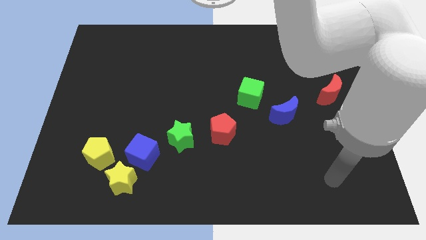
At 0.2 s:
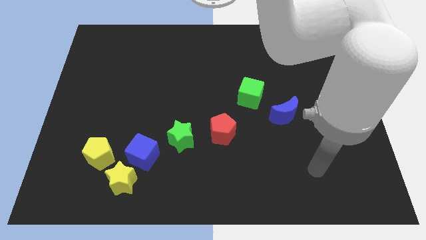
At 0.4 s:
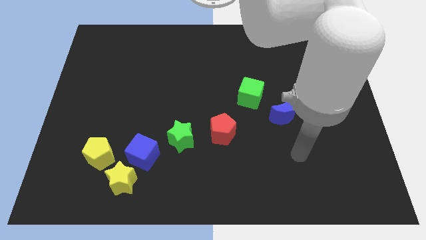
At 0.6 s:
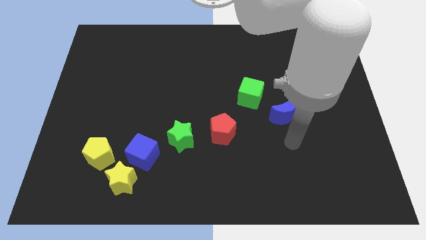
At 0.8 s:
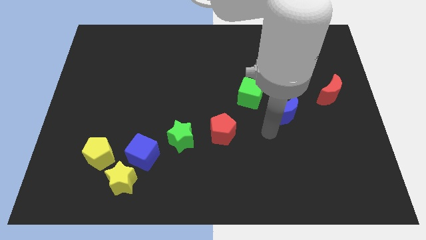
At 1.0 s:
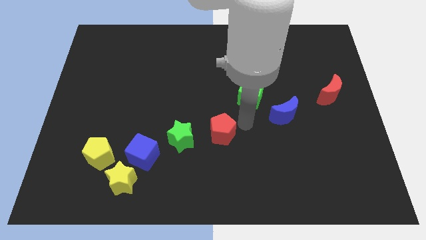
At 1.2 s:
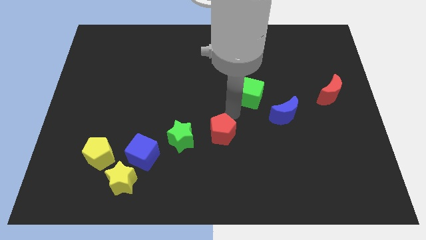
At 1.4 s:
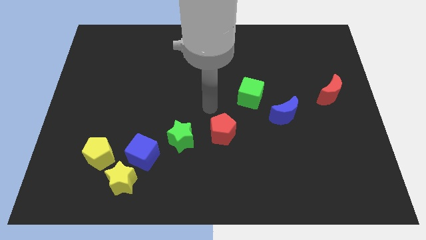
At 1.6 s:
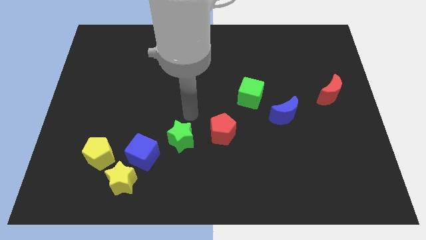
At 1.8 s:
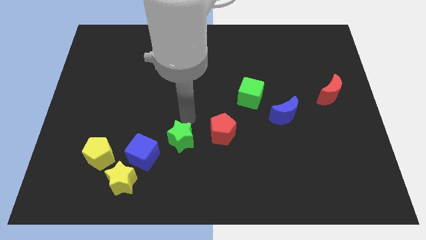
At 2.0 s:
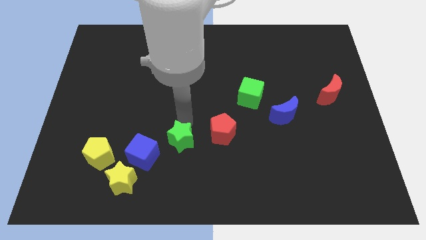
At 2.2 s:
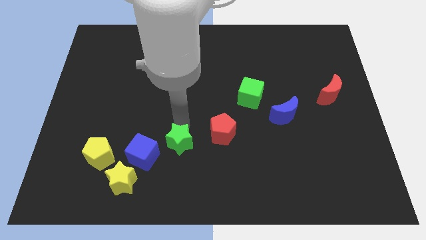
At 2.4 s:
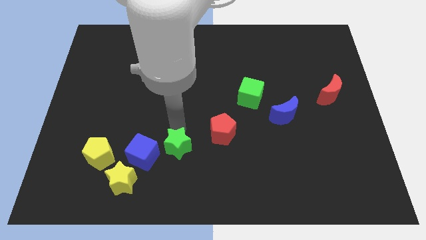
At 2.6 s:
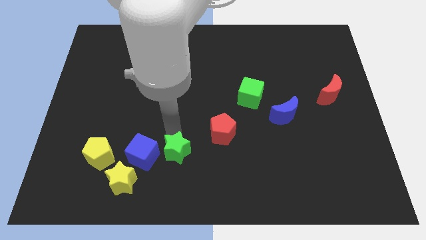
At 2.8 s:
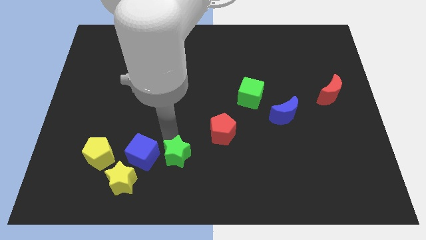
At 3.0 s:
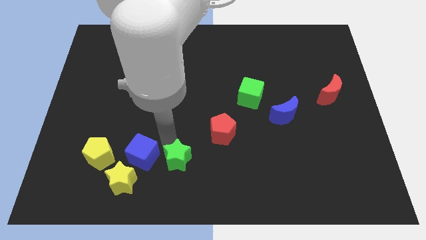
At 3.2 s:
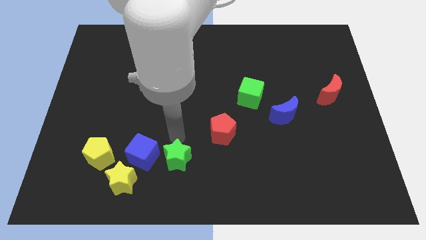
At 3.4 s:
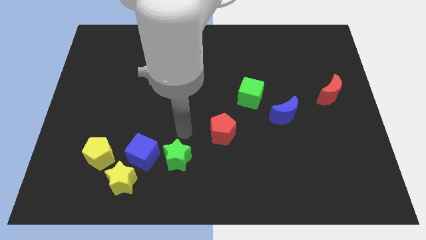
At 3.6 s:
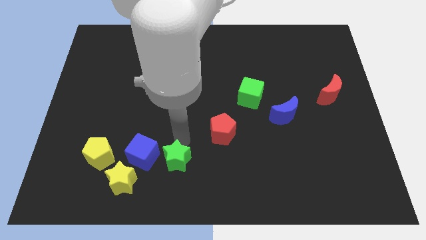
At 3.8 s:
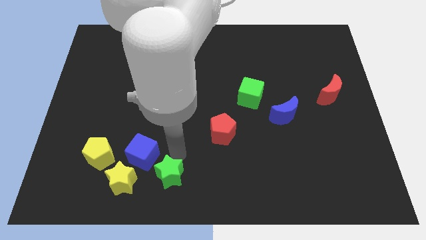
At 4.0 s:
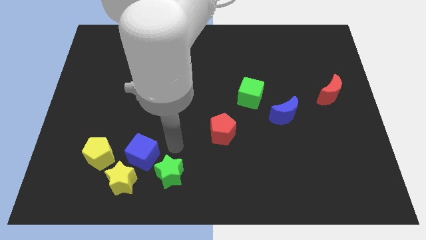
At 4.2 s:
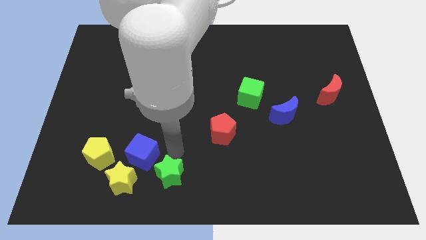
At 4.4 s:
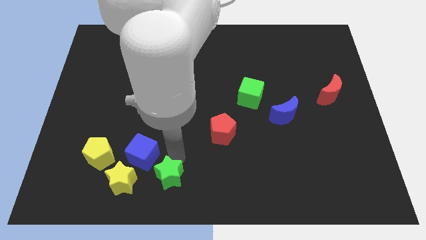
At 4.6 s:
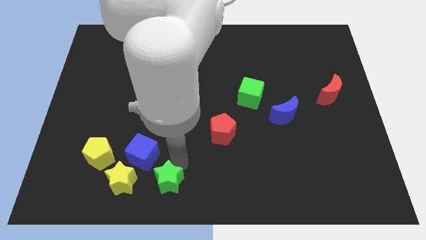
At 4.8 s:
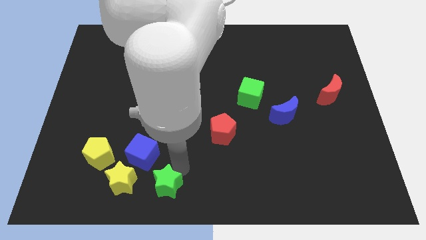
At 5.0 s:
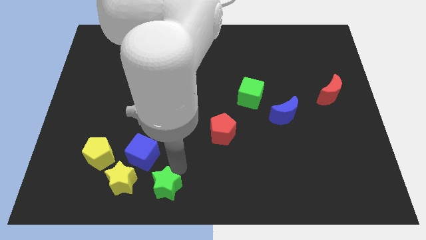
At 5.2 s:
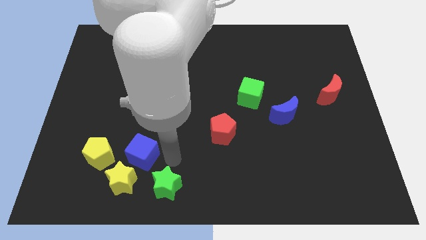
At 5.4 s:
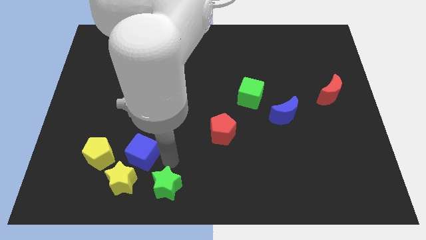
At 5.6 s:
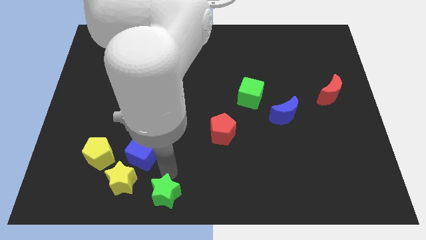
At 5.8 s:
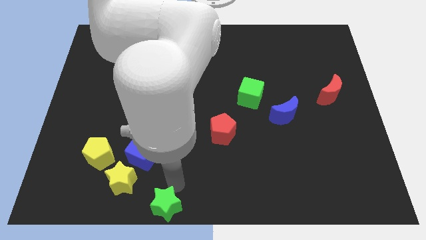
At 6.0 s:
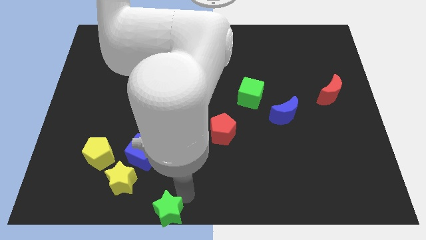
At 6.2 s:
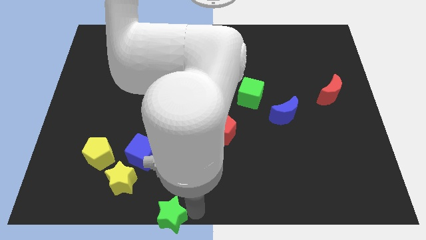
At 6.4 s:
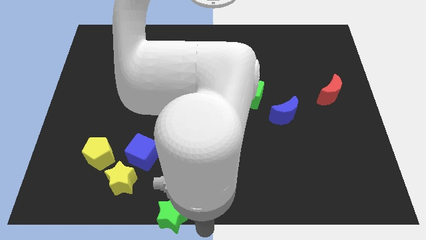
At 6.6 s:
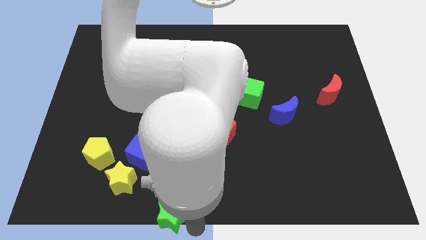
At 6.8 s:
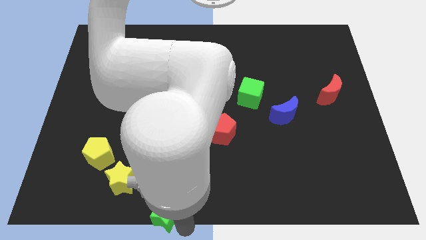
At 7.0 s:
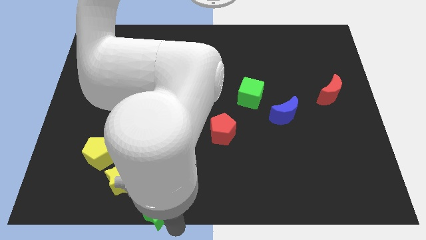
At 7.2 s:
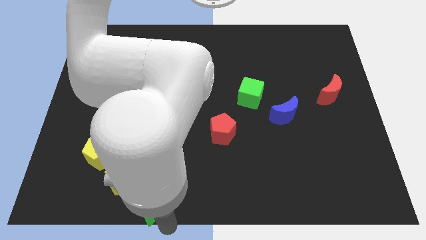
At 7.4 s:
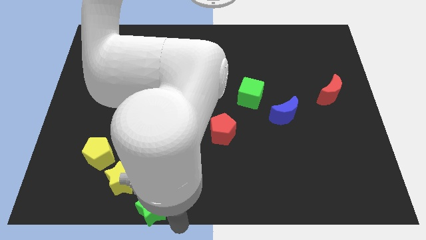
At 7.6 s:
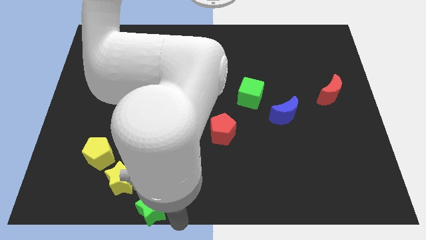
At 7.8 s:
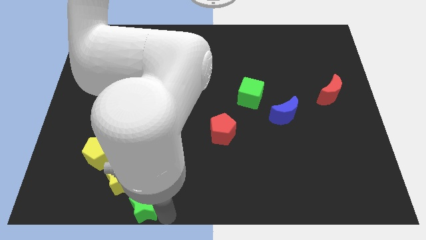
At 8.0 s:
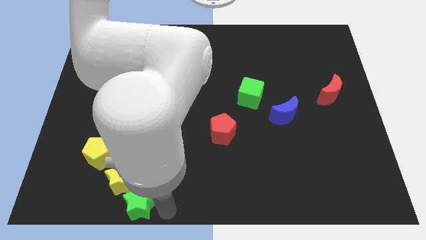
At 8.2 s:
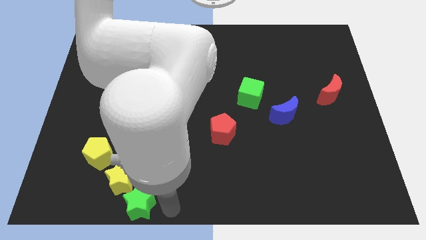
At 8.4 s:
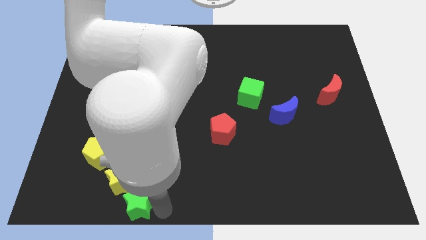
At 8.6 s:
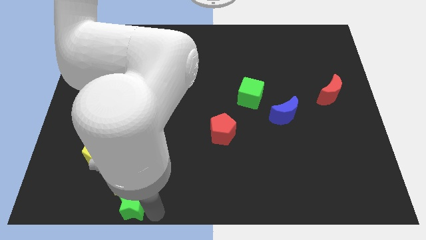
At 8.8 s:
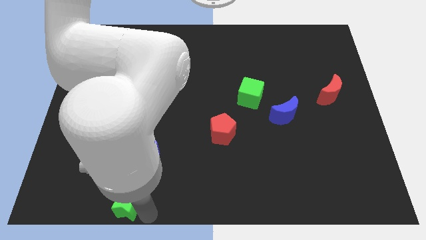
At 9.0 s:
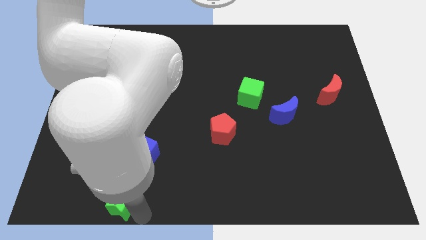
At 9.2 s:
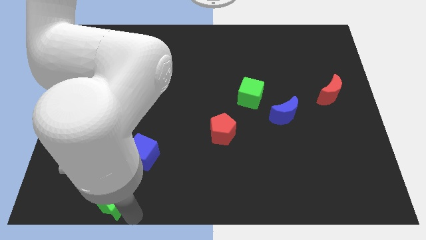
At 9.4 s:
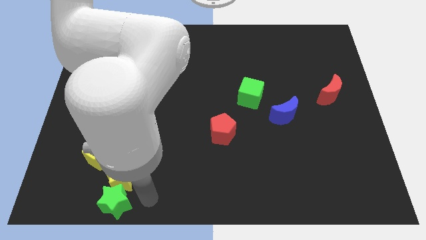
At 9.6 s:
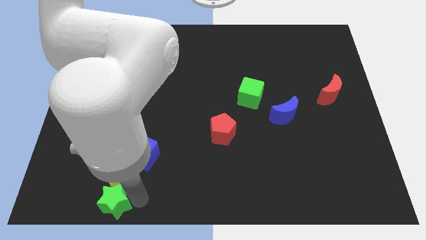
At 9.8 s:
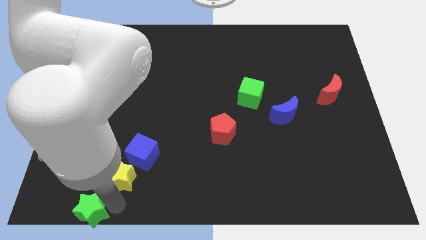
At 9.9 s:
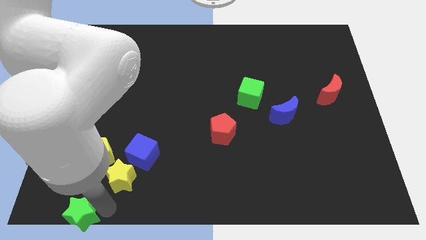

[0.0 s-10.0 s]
push the green star to the bottom left corner

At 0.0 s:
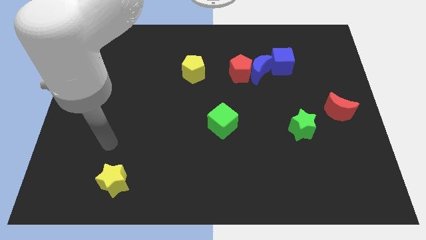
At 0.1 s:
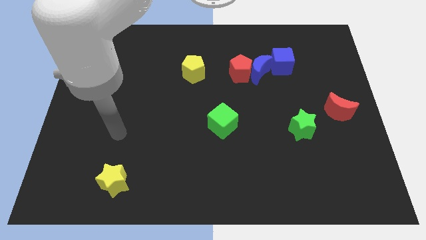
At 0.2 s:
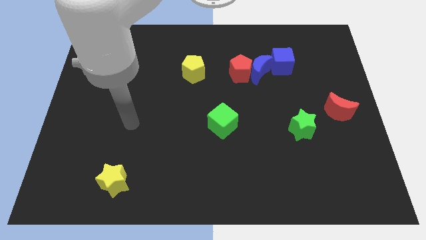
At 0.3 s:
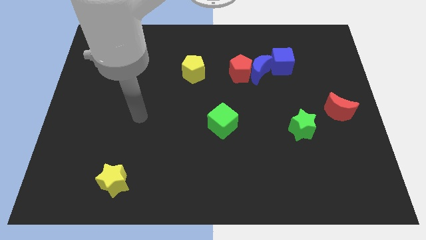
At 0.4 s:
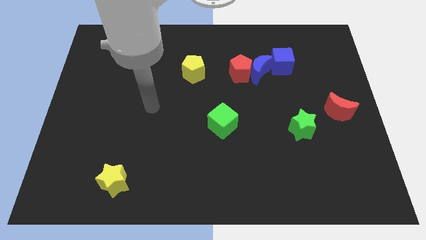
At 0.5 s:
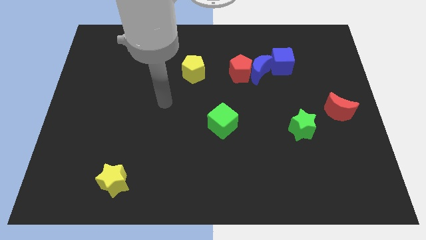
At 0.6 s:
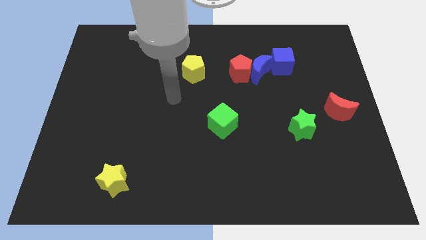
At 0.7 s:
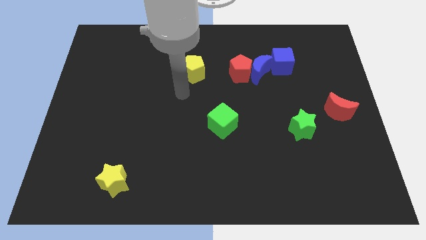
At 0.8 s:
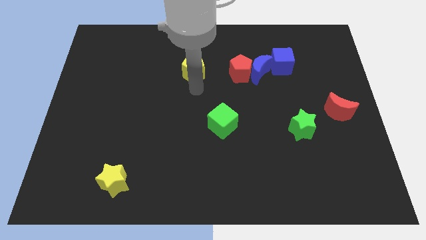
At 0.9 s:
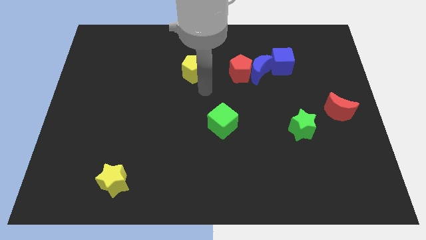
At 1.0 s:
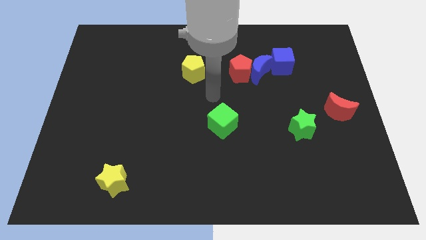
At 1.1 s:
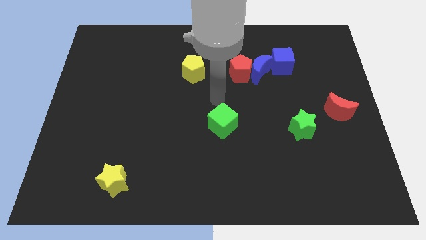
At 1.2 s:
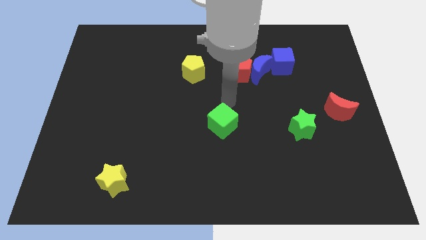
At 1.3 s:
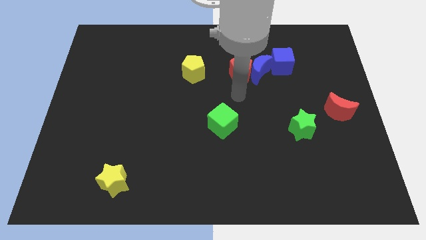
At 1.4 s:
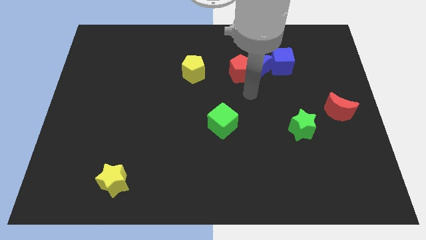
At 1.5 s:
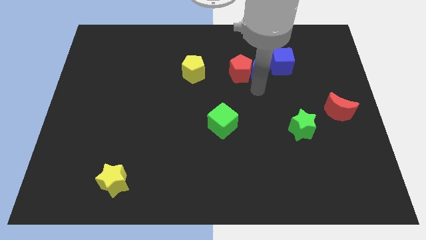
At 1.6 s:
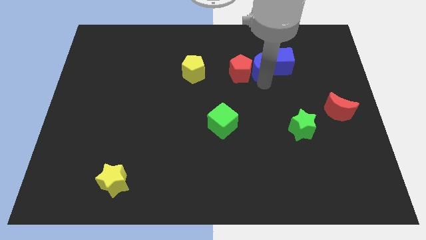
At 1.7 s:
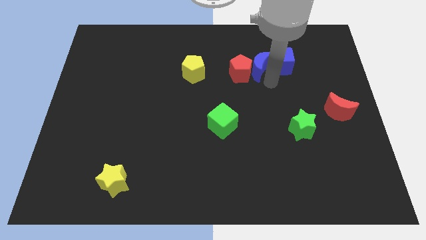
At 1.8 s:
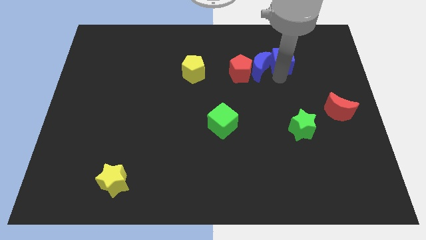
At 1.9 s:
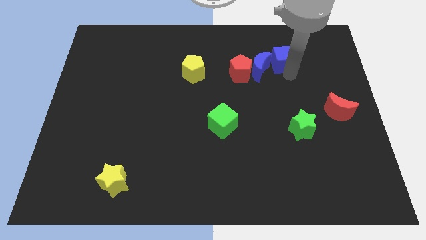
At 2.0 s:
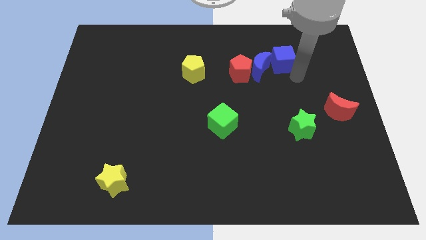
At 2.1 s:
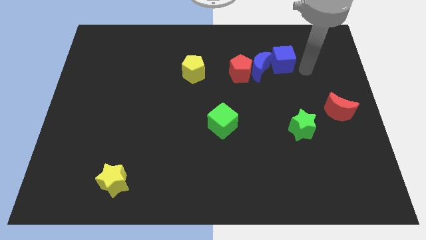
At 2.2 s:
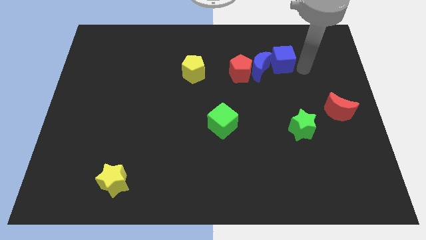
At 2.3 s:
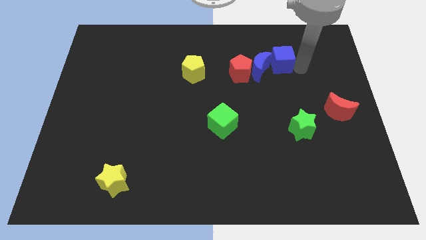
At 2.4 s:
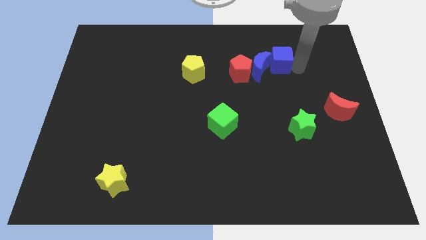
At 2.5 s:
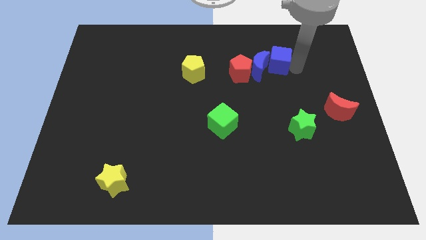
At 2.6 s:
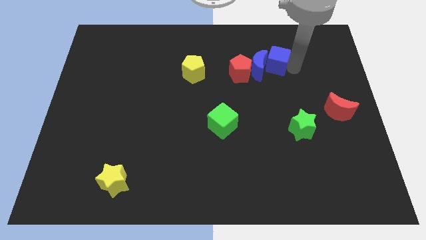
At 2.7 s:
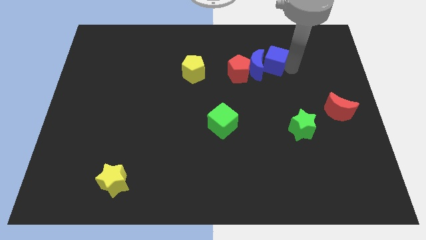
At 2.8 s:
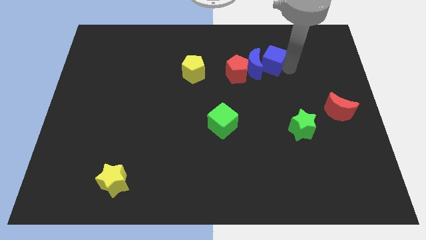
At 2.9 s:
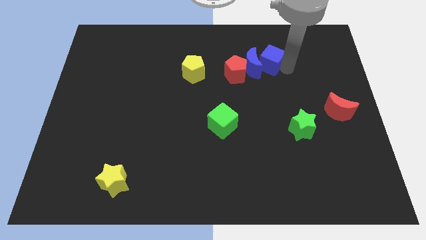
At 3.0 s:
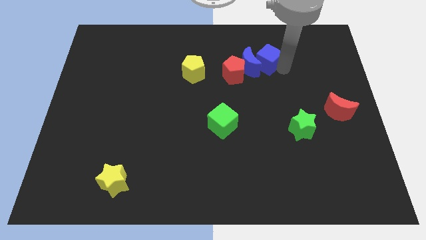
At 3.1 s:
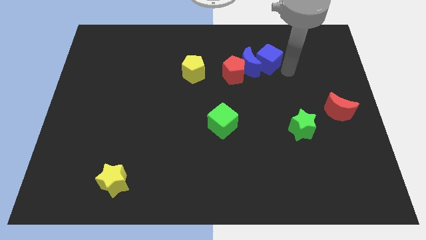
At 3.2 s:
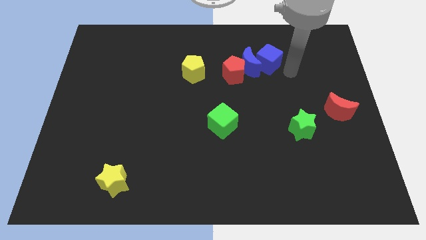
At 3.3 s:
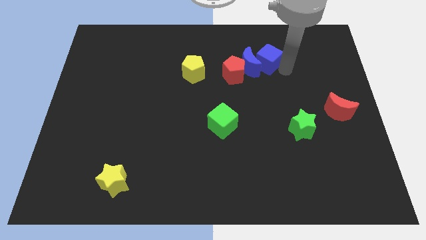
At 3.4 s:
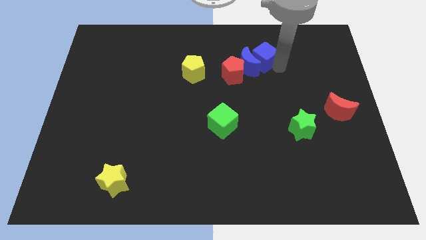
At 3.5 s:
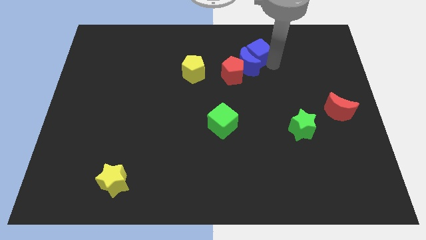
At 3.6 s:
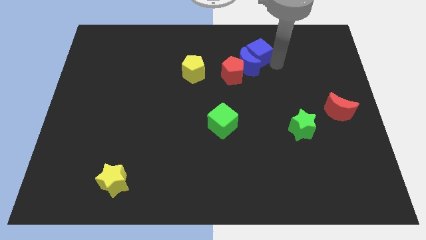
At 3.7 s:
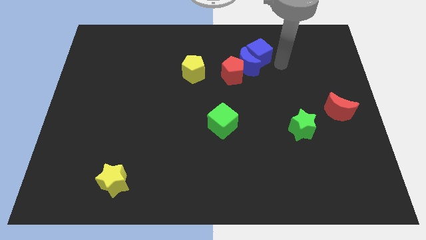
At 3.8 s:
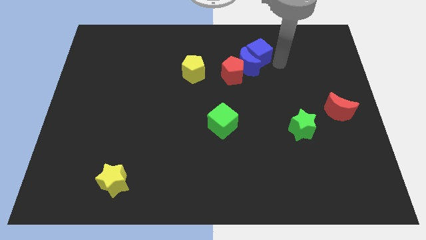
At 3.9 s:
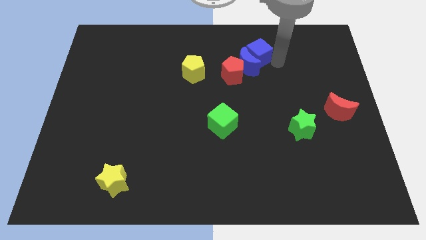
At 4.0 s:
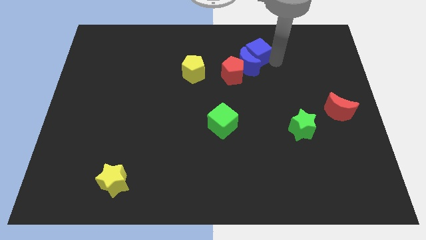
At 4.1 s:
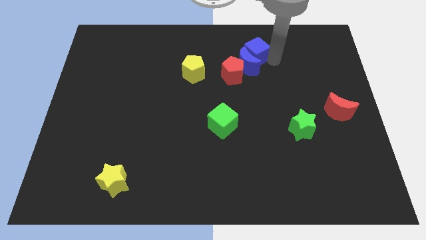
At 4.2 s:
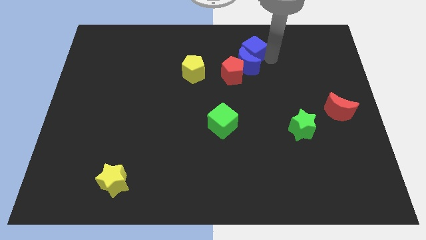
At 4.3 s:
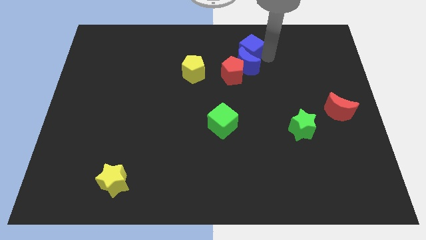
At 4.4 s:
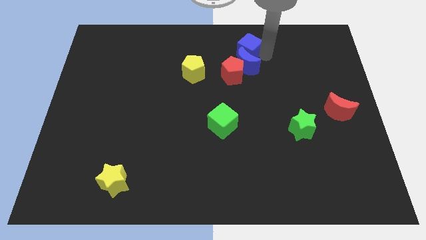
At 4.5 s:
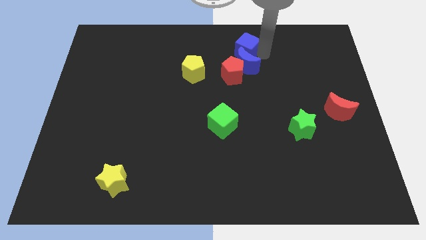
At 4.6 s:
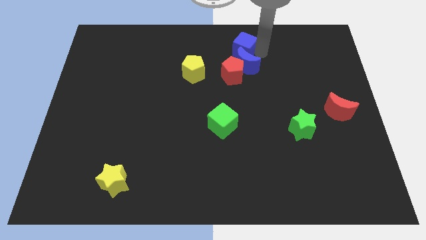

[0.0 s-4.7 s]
put the blue cube to the towards your base
